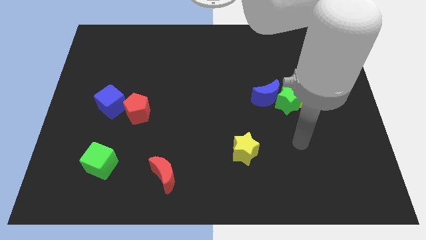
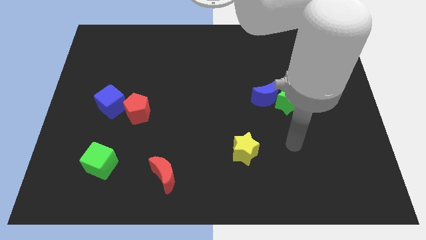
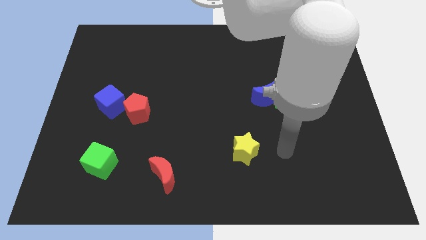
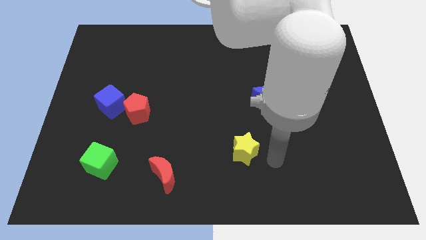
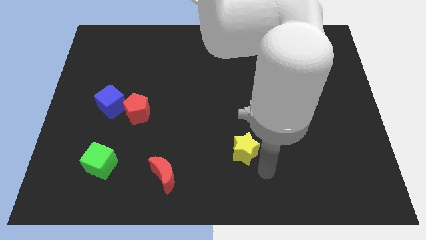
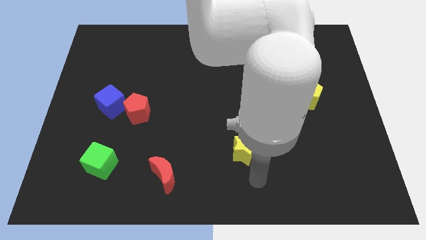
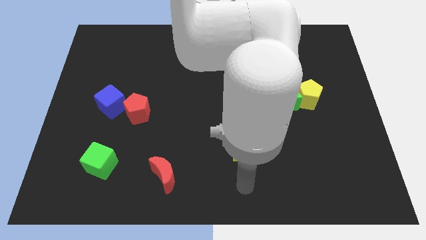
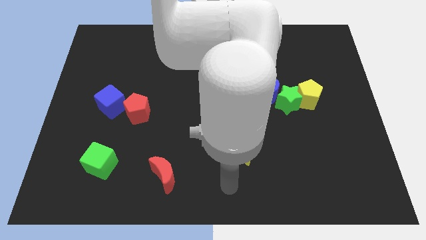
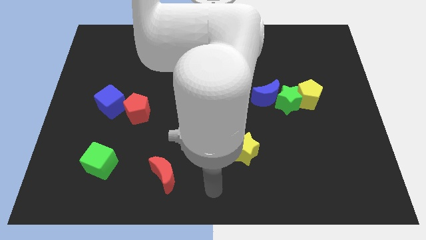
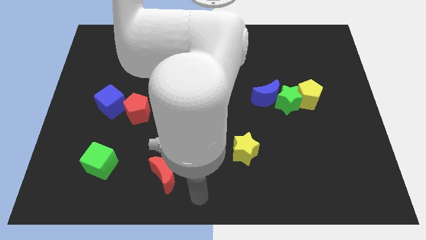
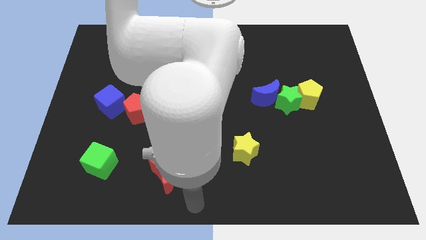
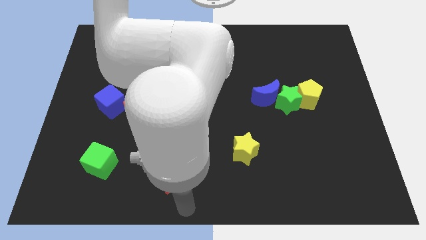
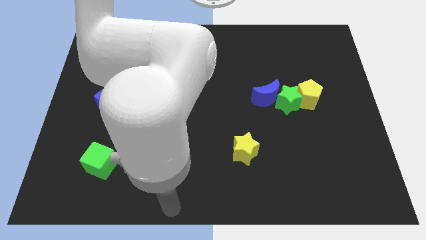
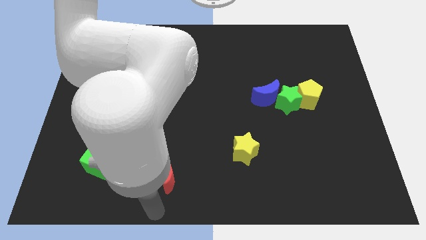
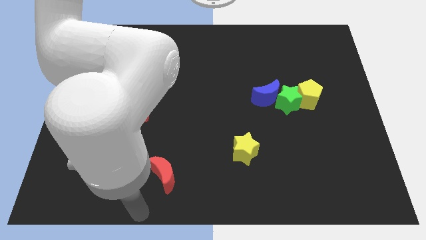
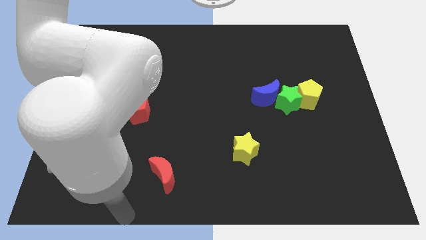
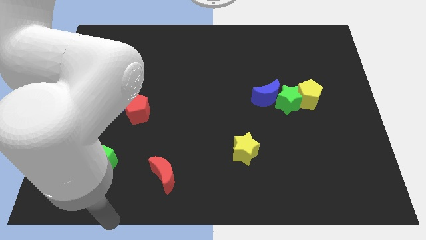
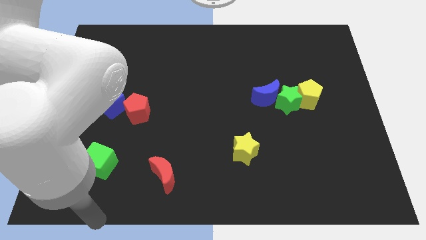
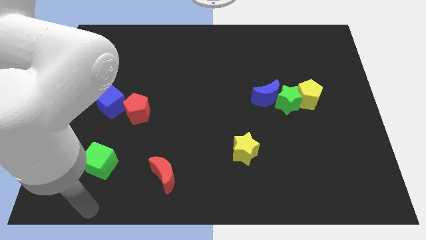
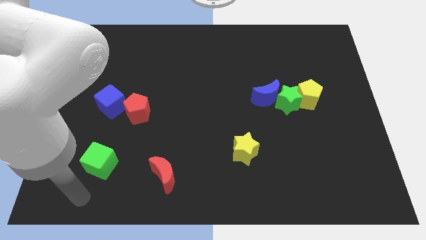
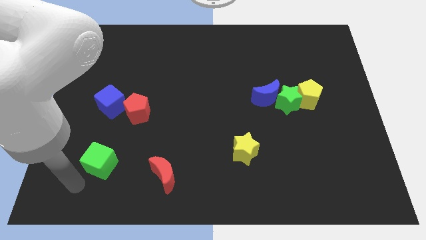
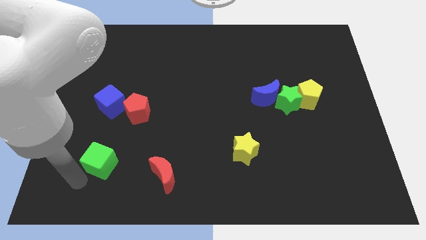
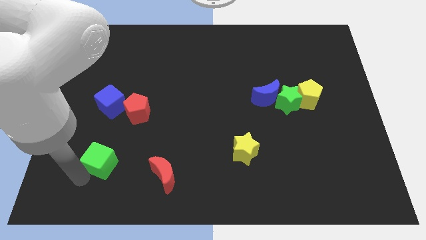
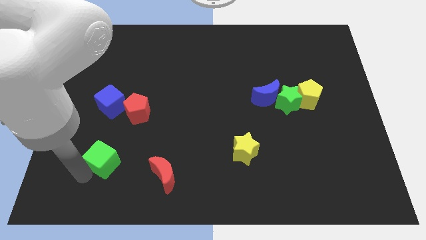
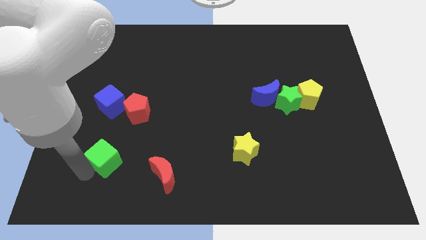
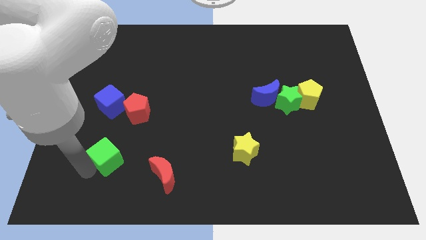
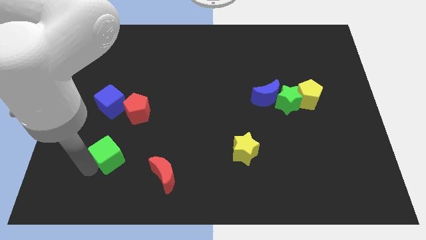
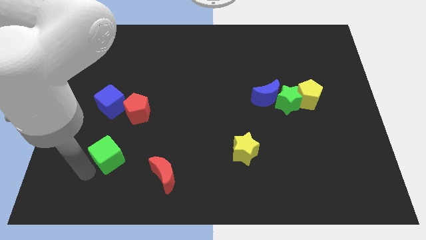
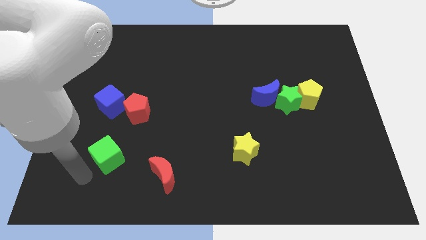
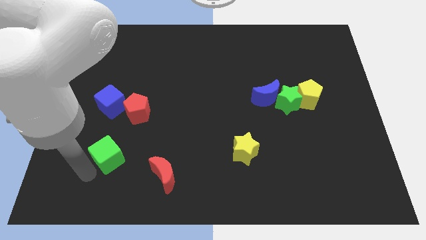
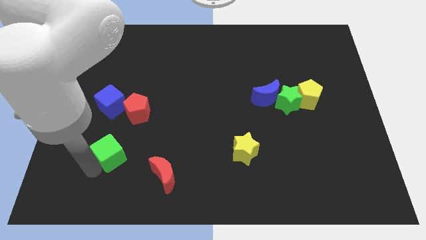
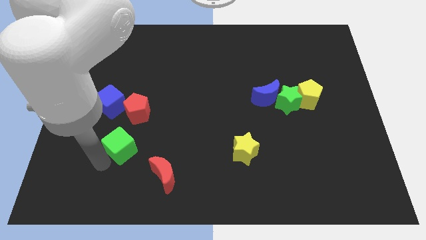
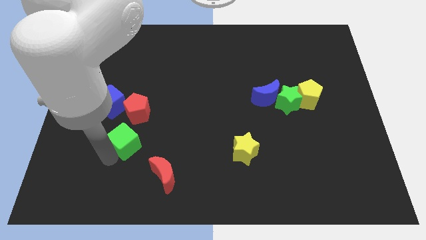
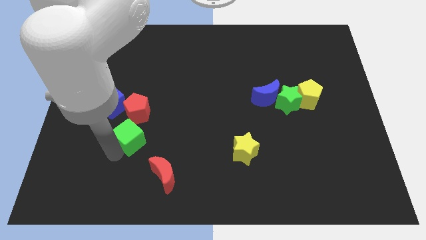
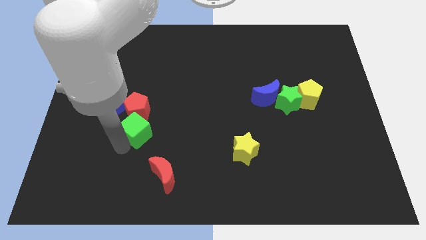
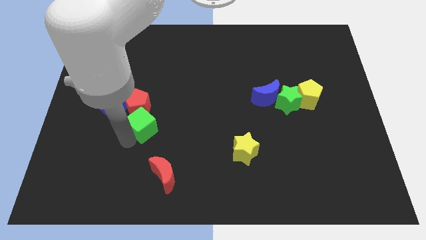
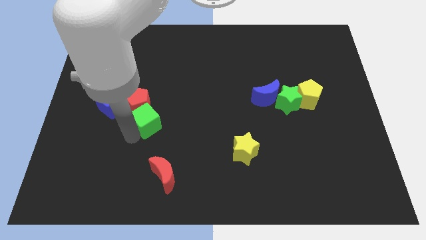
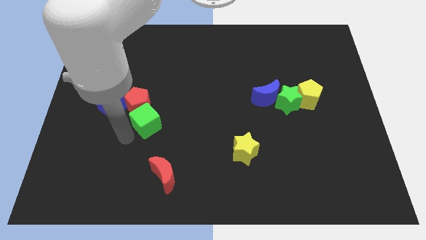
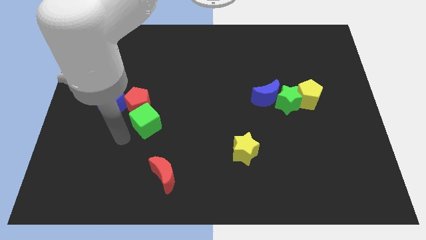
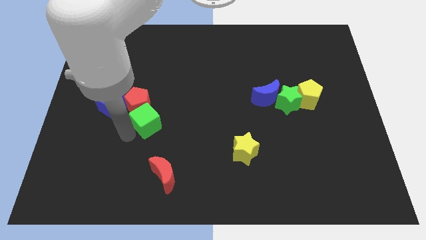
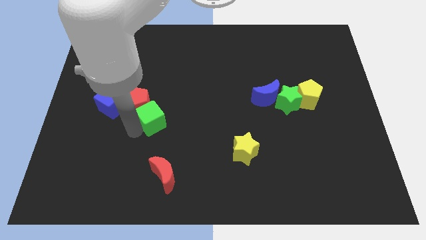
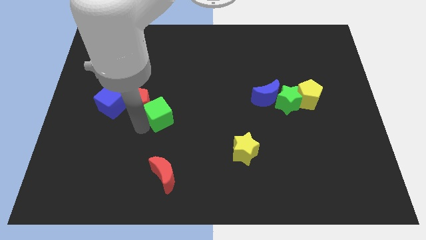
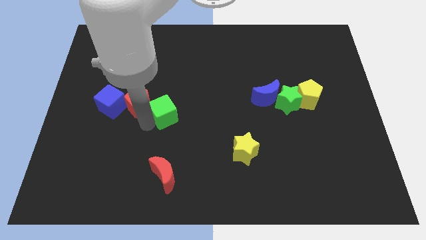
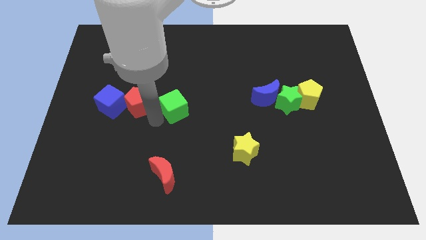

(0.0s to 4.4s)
slide the green cube upwards and to the right

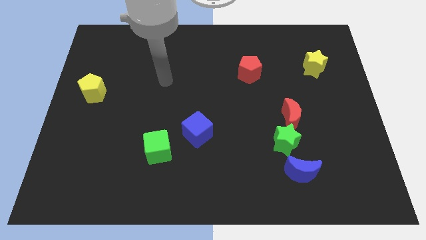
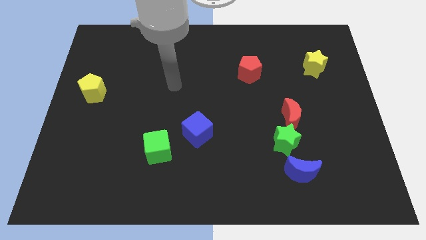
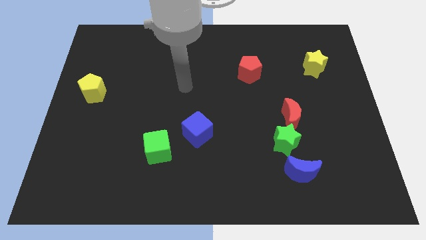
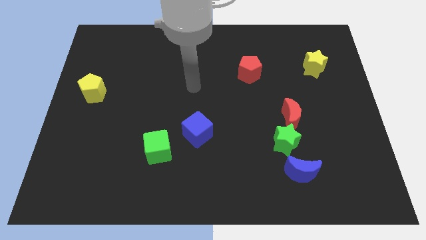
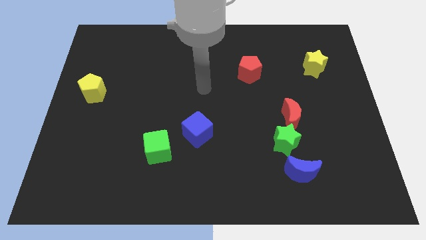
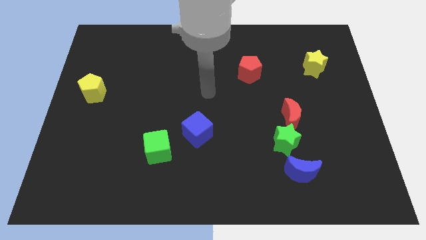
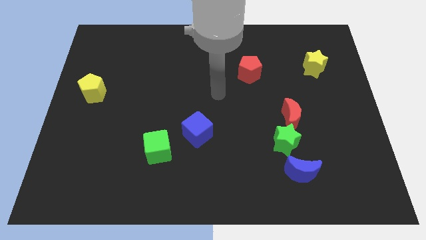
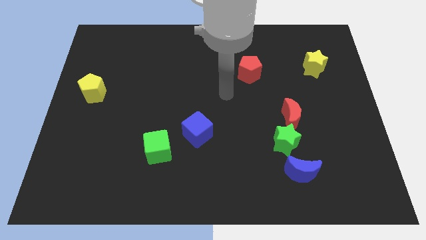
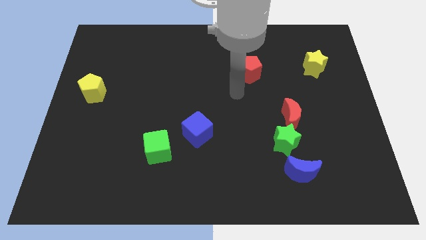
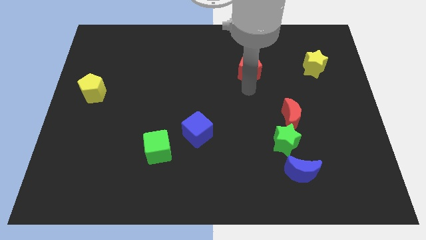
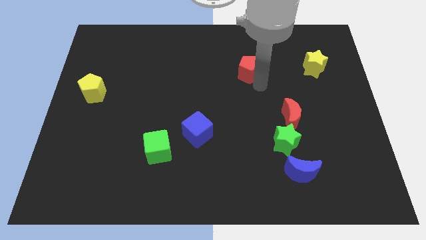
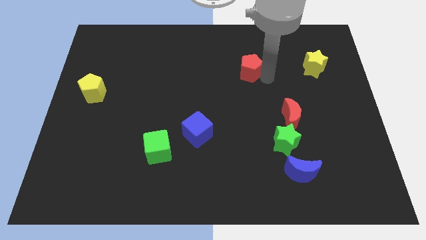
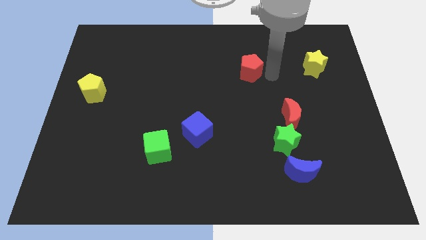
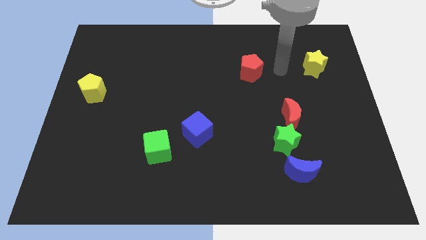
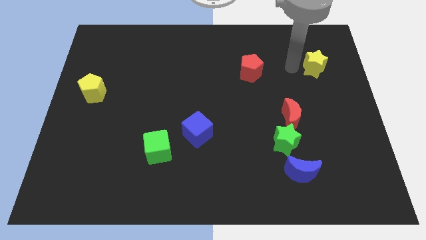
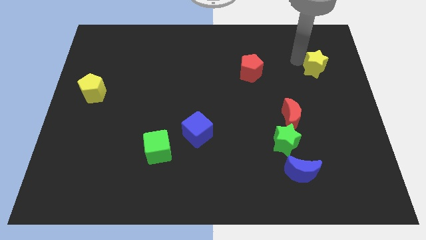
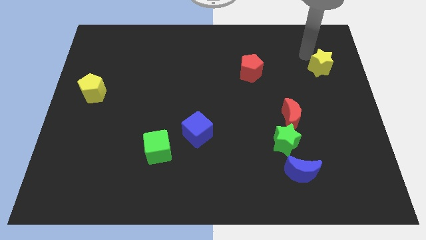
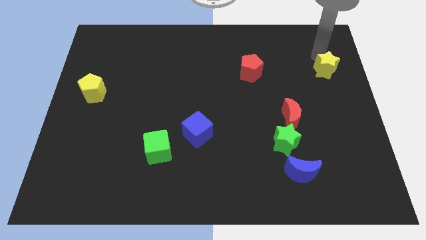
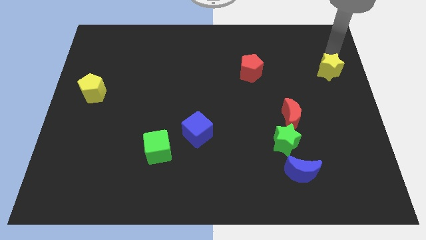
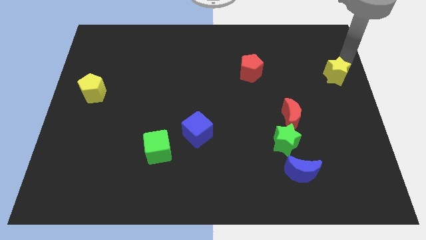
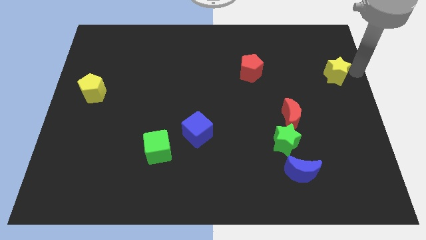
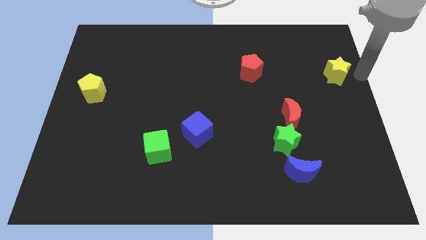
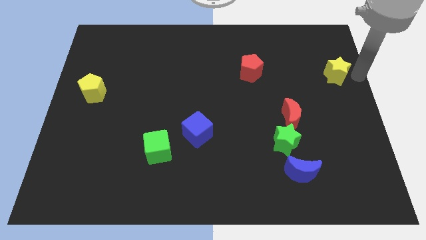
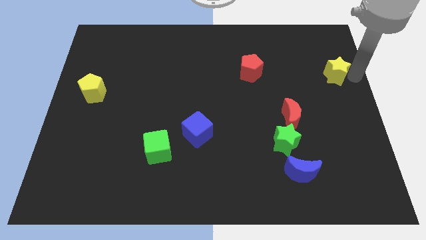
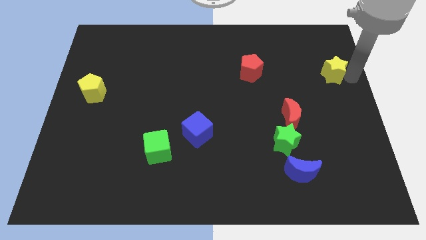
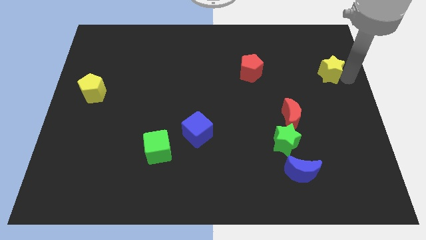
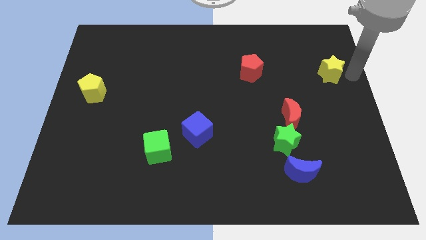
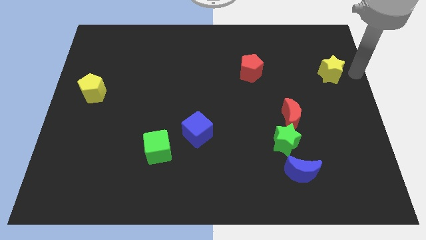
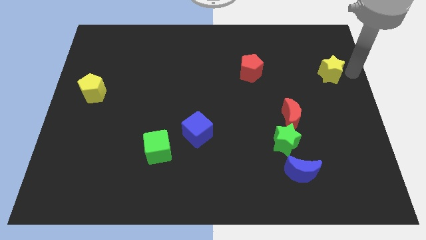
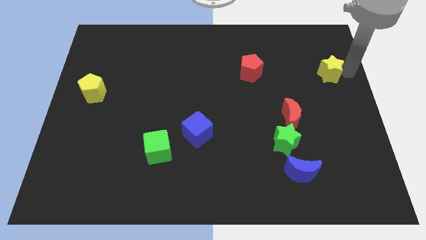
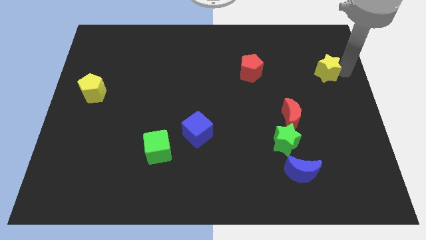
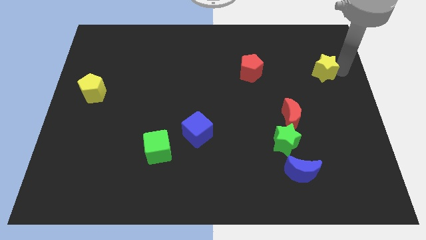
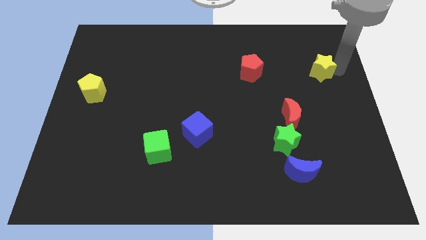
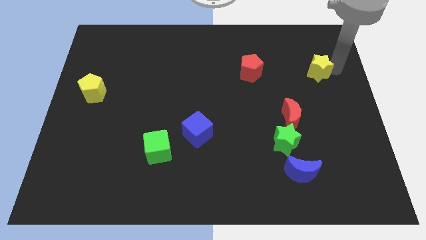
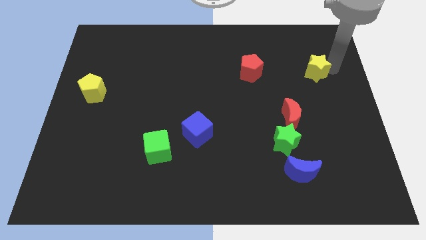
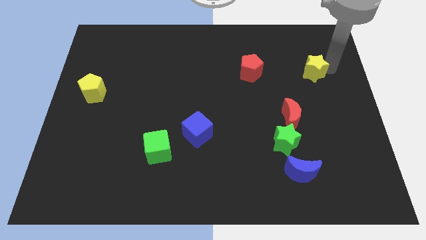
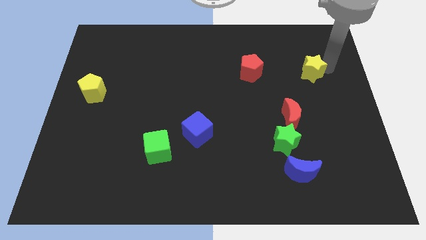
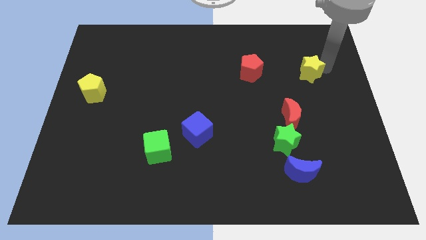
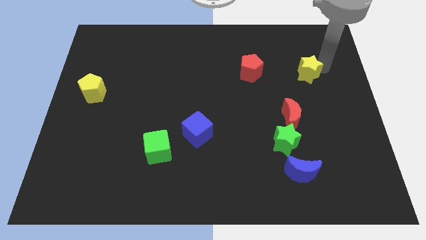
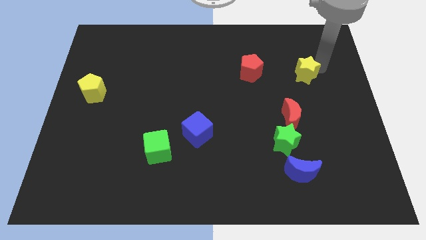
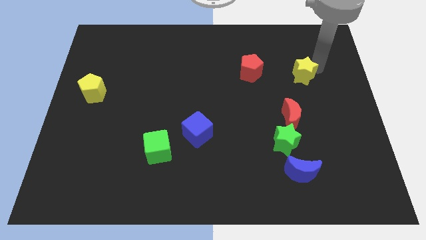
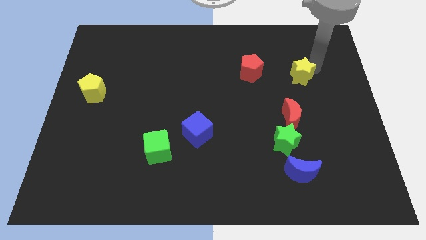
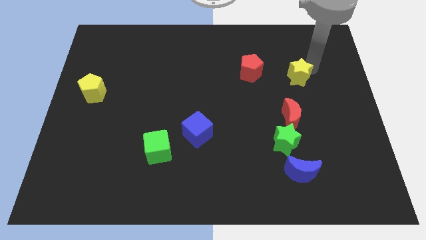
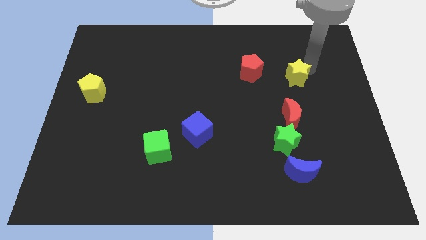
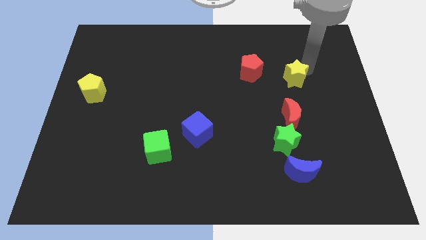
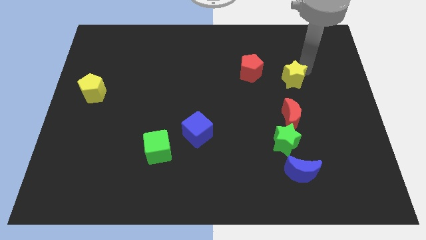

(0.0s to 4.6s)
slide the yellow star a little diagonally down and to the left
